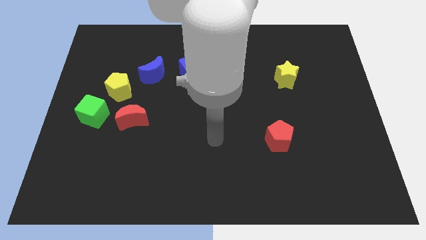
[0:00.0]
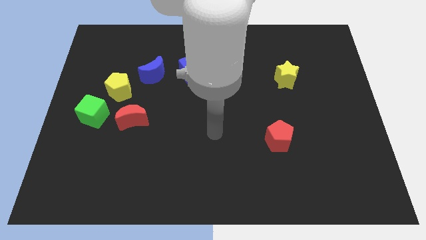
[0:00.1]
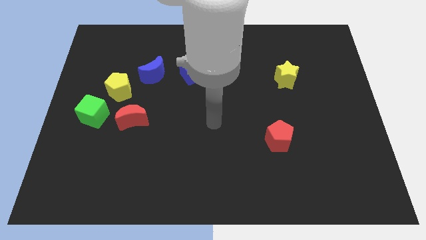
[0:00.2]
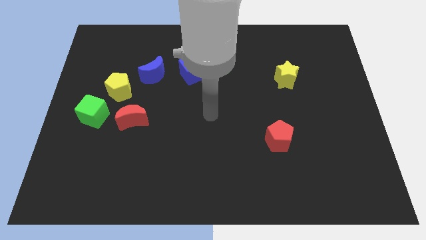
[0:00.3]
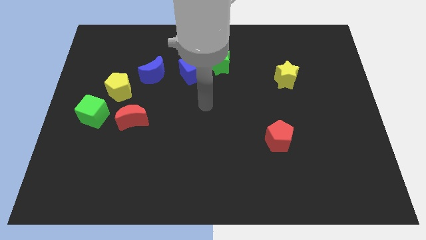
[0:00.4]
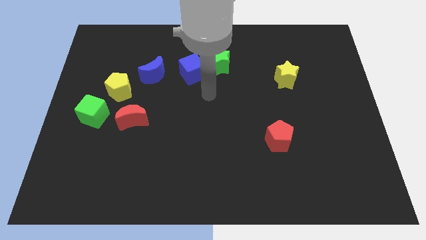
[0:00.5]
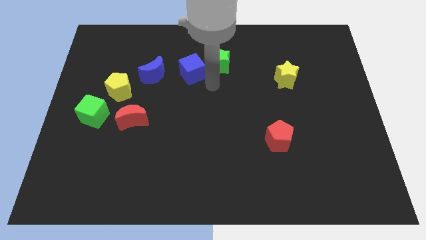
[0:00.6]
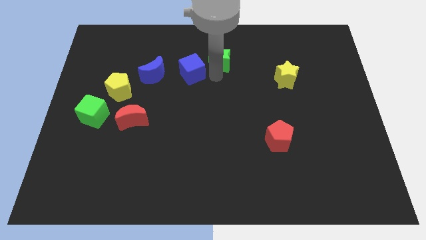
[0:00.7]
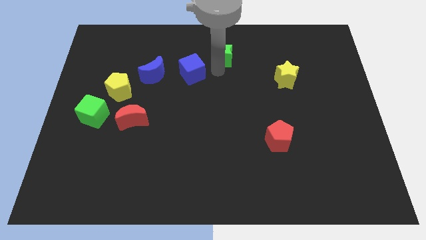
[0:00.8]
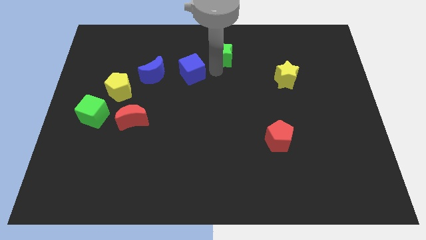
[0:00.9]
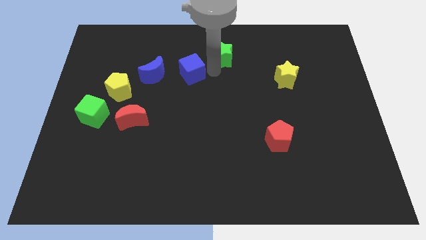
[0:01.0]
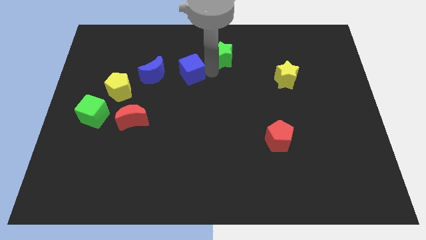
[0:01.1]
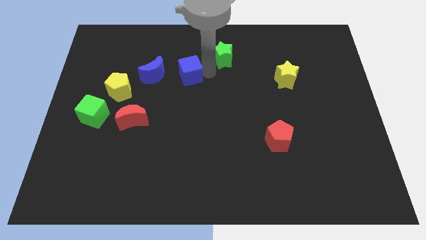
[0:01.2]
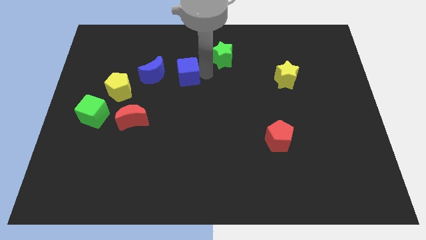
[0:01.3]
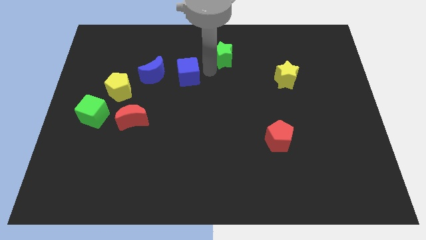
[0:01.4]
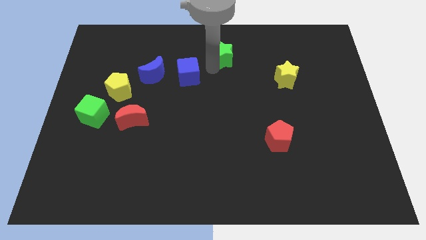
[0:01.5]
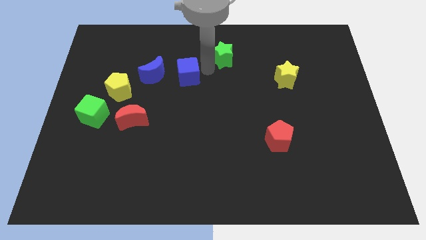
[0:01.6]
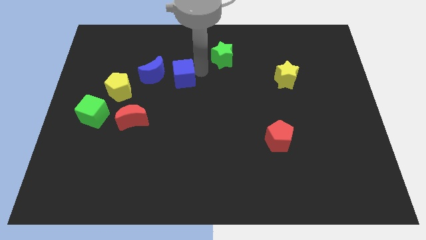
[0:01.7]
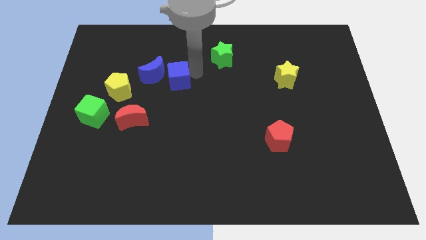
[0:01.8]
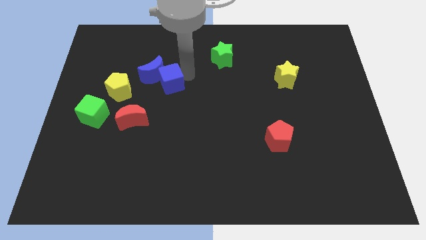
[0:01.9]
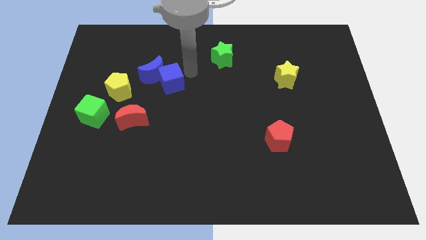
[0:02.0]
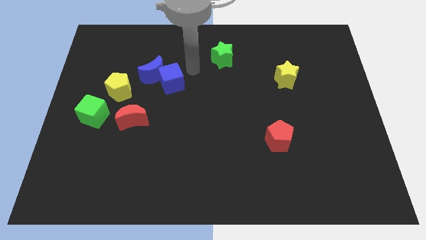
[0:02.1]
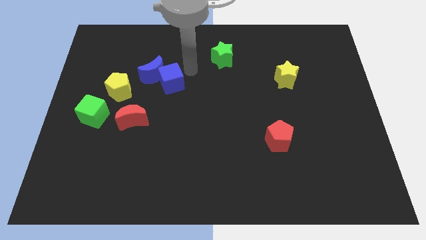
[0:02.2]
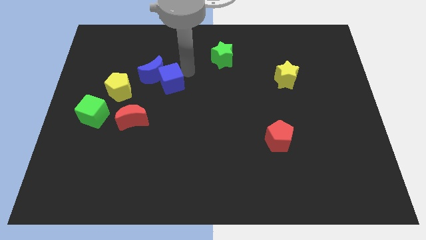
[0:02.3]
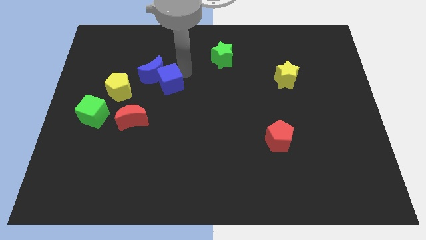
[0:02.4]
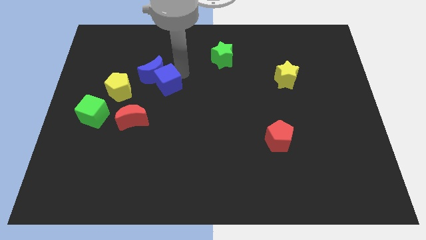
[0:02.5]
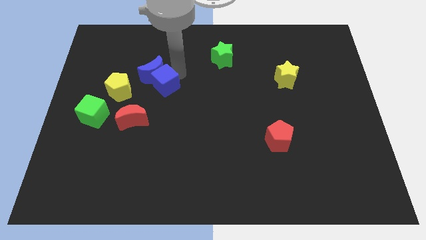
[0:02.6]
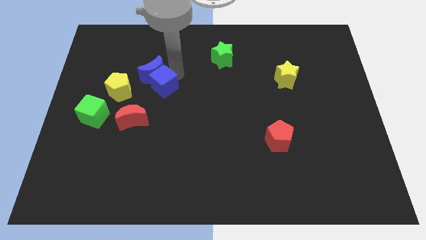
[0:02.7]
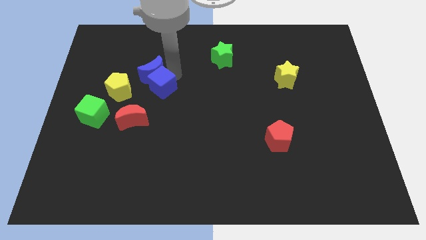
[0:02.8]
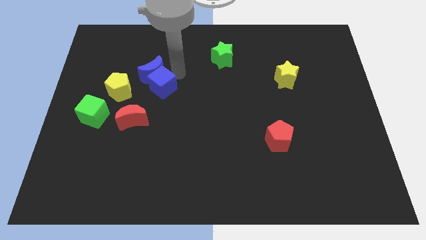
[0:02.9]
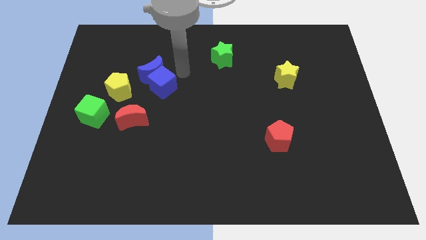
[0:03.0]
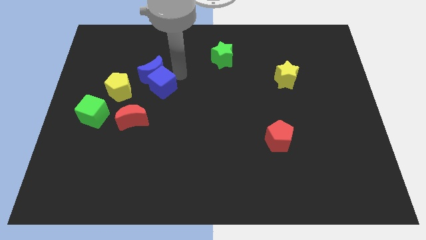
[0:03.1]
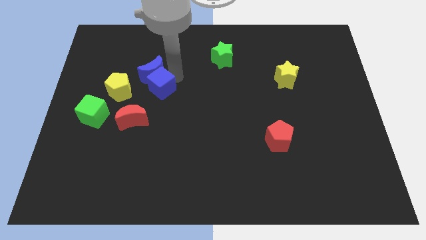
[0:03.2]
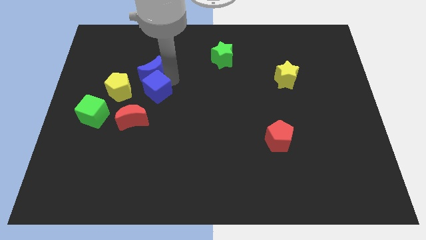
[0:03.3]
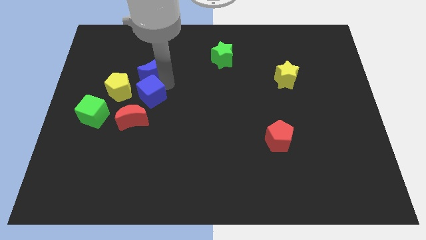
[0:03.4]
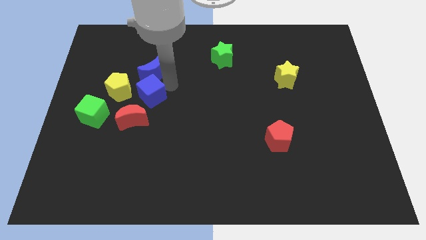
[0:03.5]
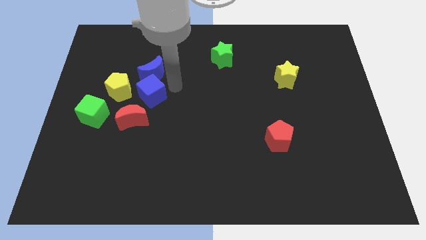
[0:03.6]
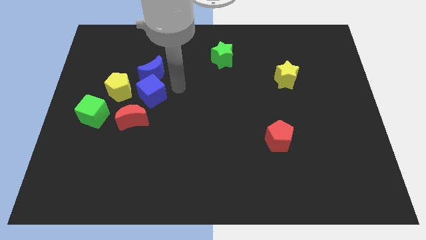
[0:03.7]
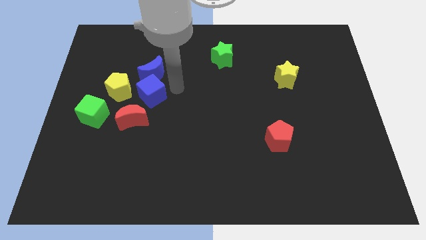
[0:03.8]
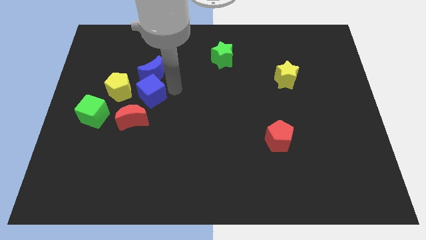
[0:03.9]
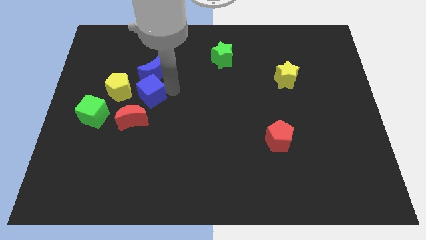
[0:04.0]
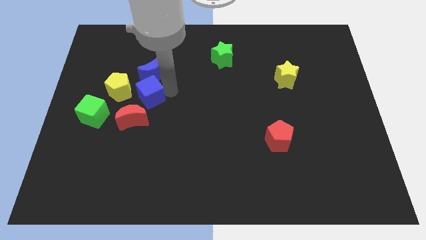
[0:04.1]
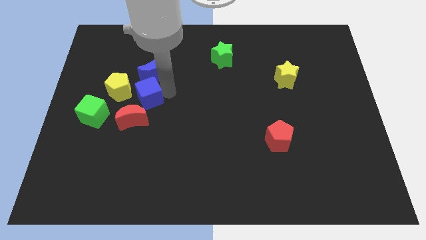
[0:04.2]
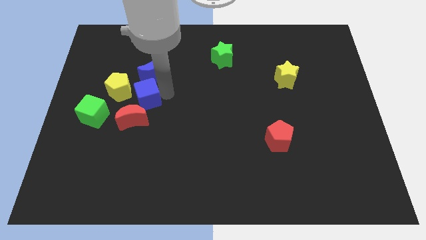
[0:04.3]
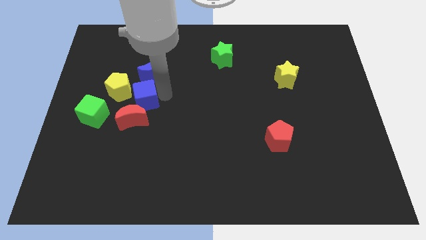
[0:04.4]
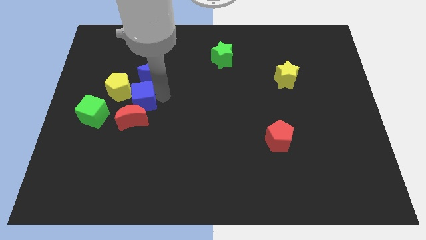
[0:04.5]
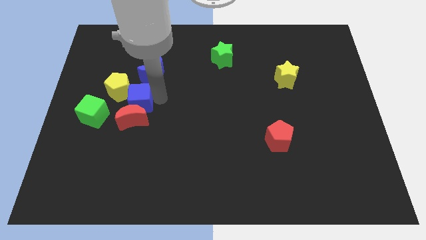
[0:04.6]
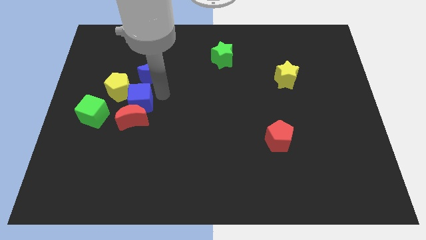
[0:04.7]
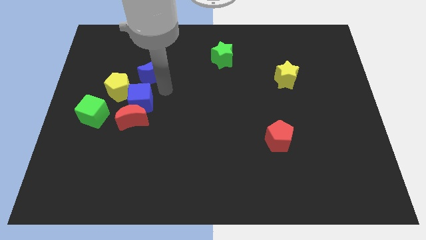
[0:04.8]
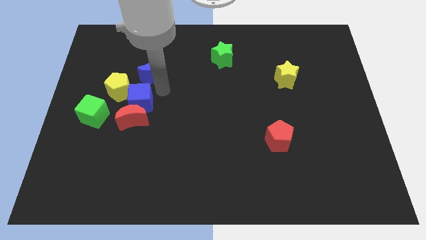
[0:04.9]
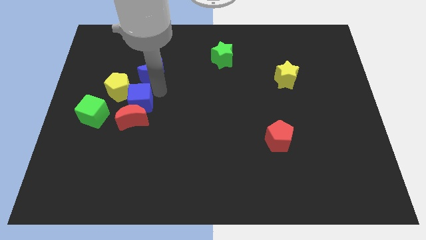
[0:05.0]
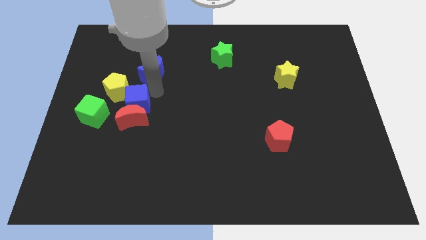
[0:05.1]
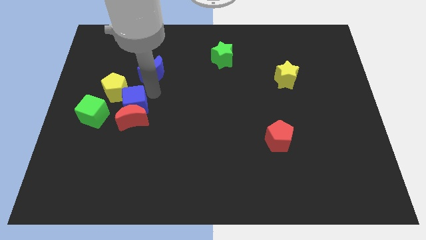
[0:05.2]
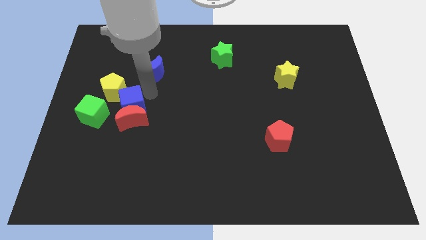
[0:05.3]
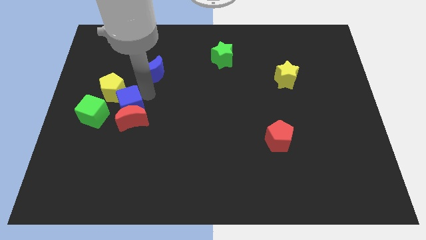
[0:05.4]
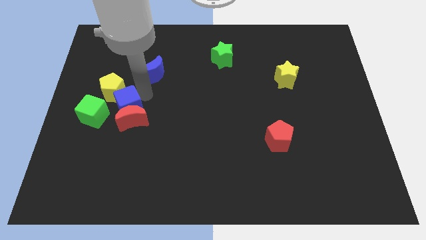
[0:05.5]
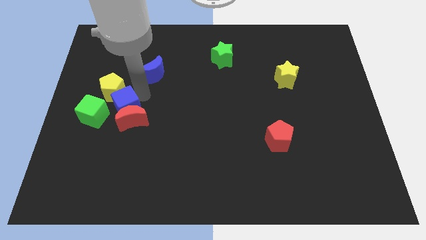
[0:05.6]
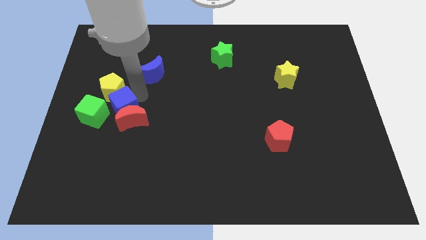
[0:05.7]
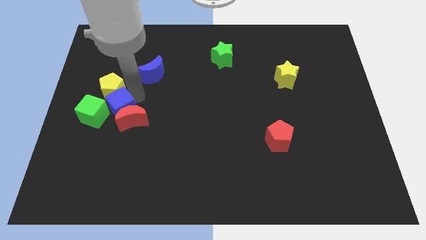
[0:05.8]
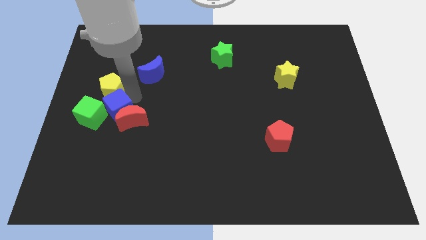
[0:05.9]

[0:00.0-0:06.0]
slide the blue cube downwards and then to the left

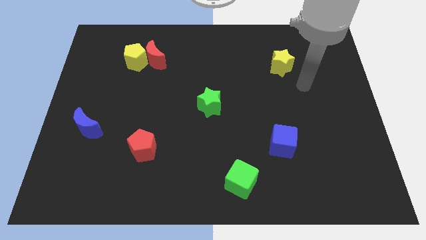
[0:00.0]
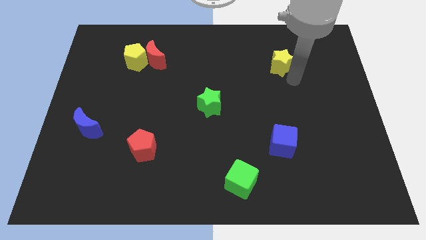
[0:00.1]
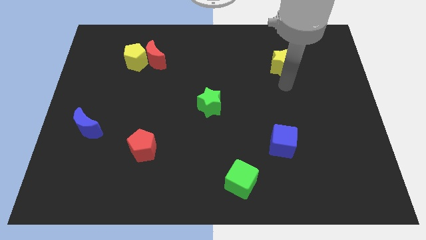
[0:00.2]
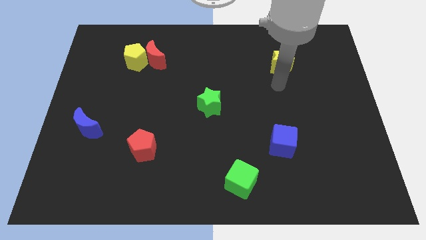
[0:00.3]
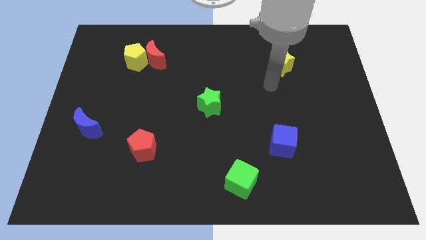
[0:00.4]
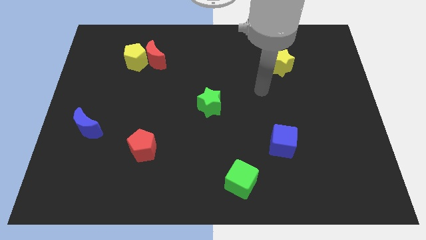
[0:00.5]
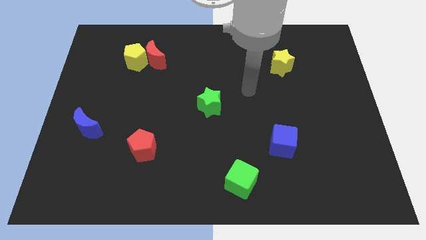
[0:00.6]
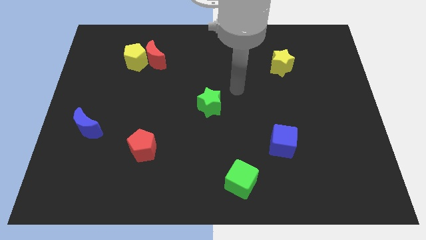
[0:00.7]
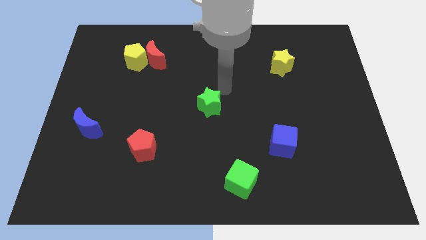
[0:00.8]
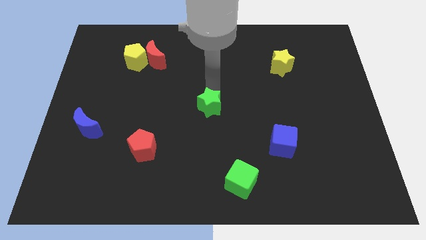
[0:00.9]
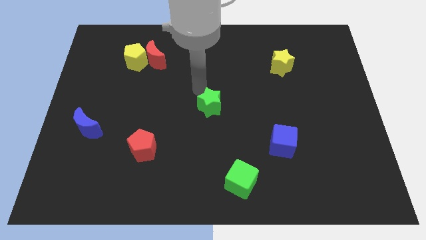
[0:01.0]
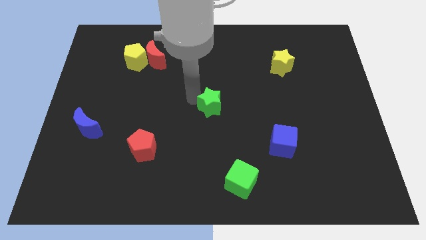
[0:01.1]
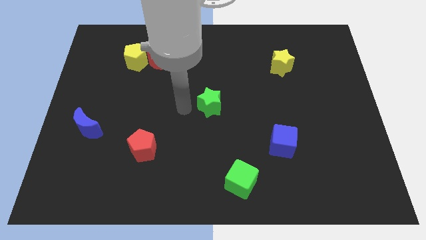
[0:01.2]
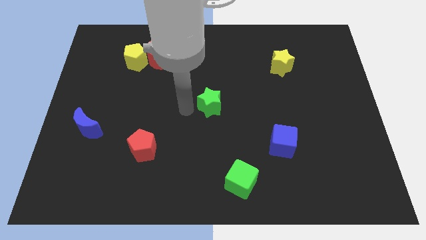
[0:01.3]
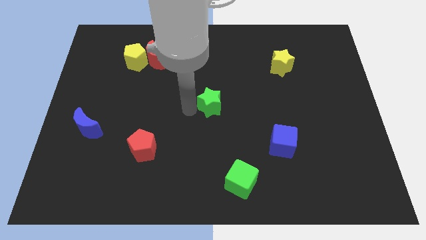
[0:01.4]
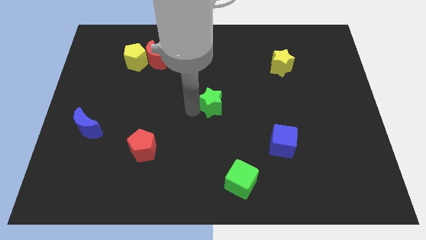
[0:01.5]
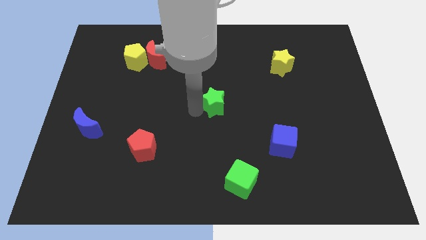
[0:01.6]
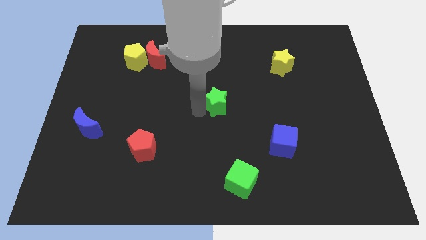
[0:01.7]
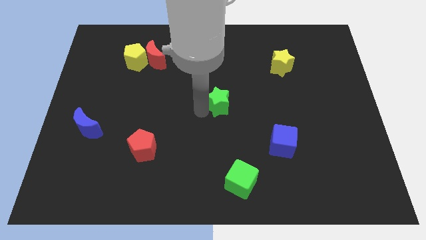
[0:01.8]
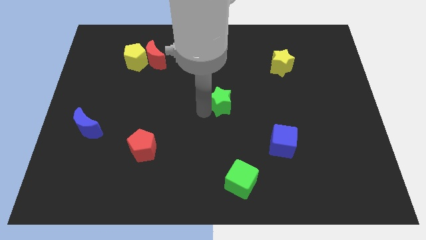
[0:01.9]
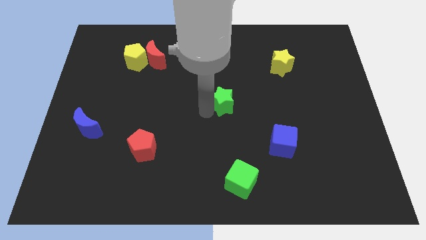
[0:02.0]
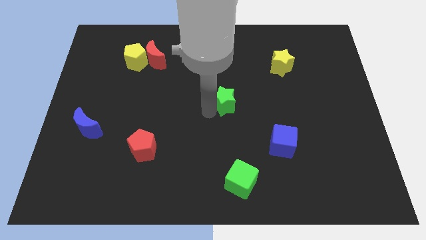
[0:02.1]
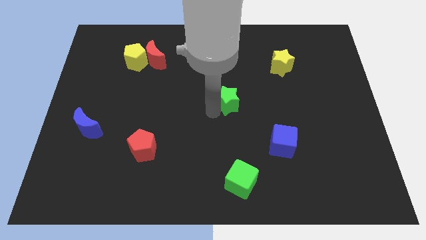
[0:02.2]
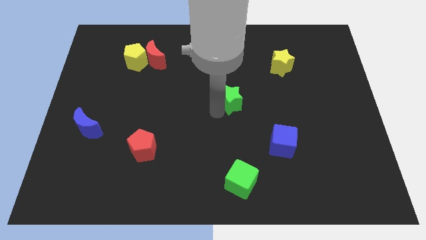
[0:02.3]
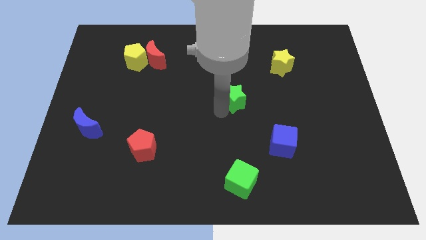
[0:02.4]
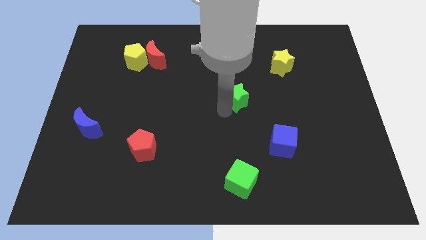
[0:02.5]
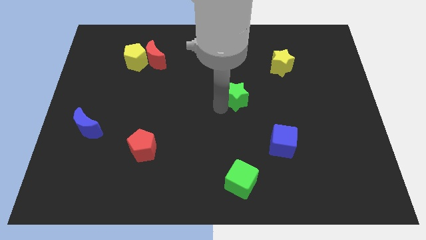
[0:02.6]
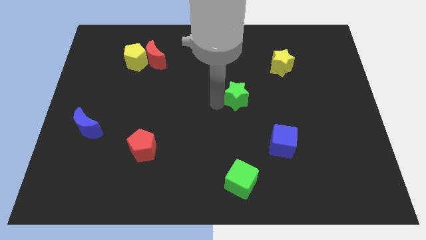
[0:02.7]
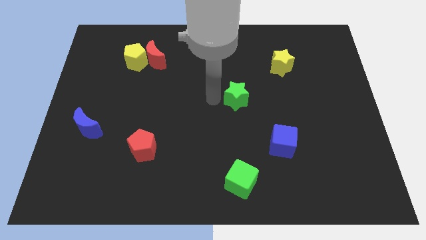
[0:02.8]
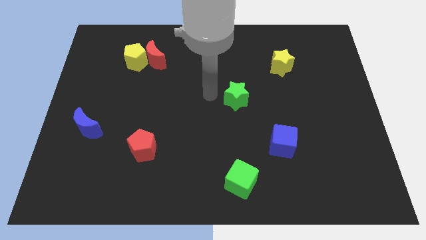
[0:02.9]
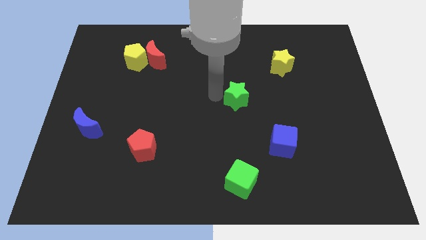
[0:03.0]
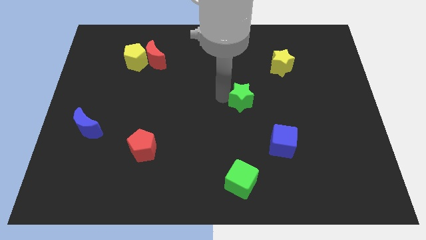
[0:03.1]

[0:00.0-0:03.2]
move the green star to the right a little bit
